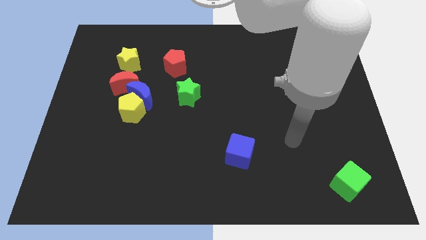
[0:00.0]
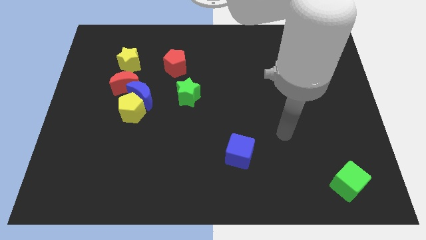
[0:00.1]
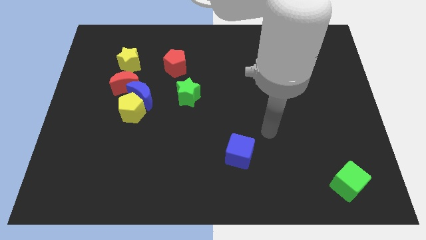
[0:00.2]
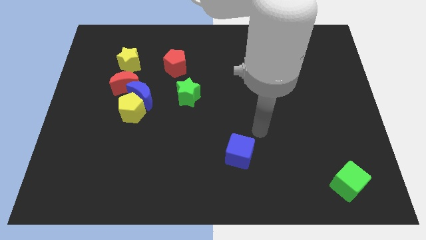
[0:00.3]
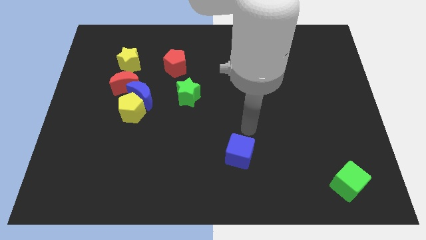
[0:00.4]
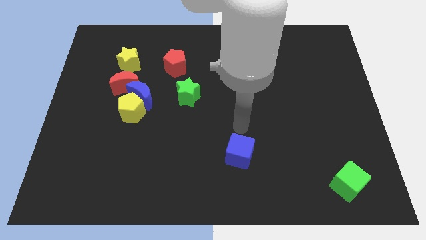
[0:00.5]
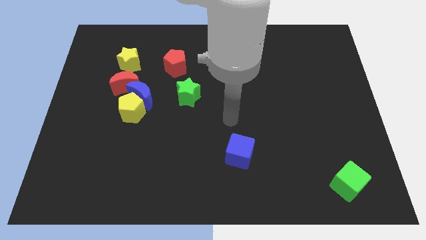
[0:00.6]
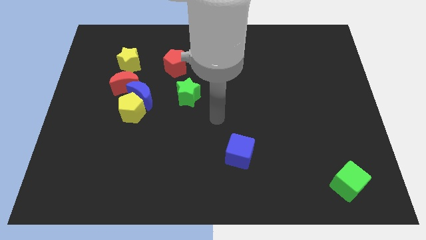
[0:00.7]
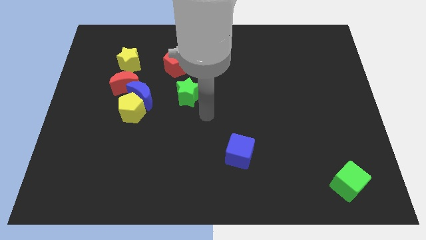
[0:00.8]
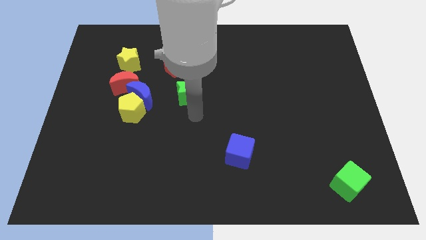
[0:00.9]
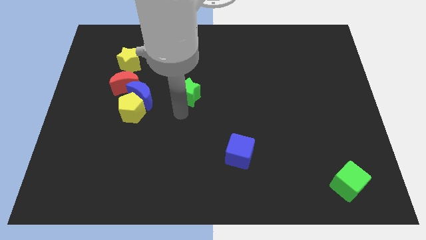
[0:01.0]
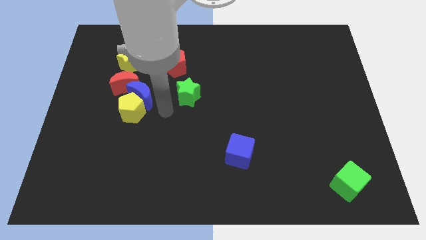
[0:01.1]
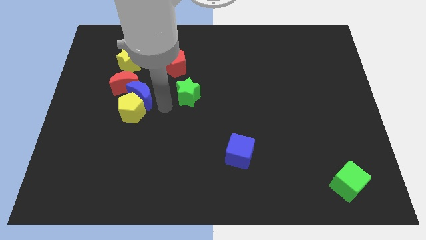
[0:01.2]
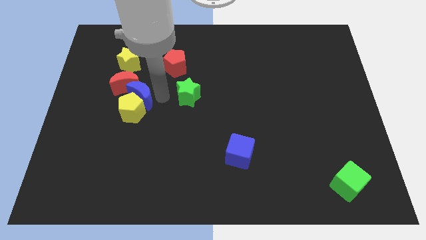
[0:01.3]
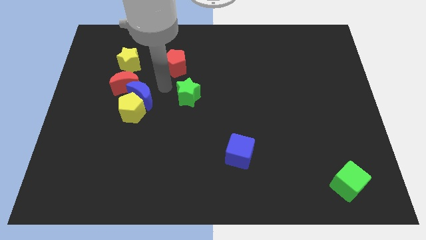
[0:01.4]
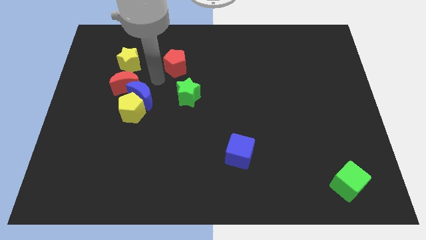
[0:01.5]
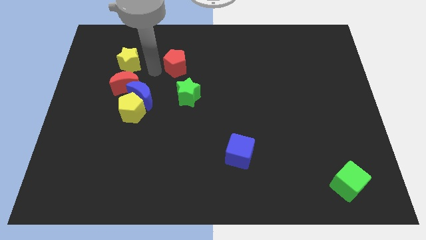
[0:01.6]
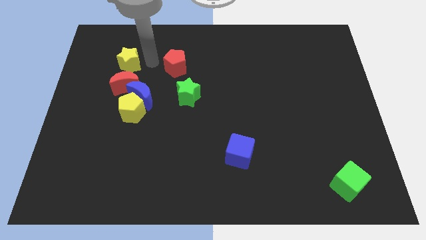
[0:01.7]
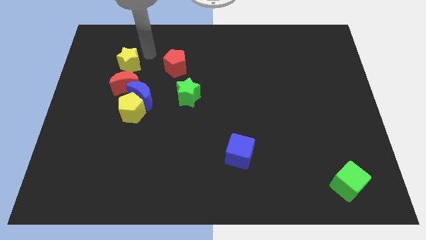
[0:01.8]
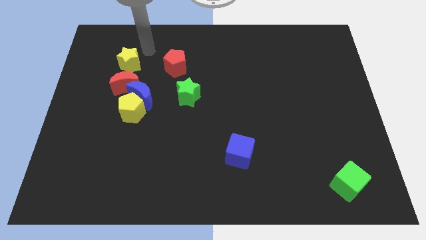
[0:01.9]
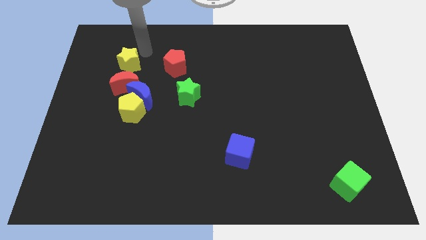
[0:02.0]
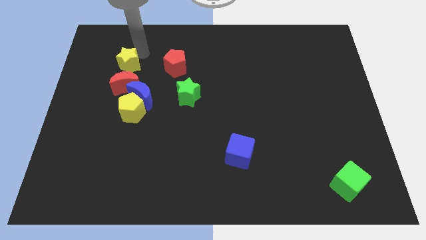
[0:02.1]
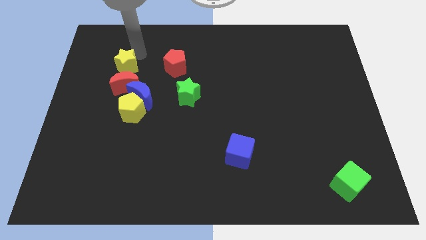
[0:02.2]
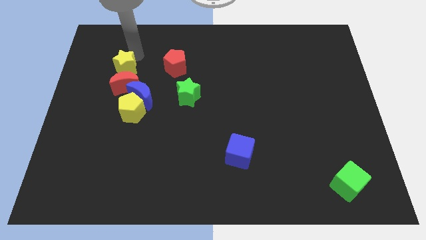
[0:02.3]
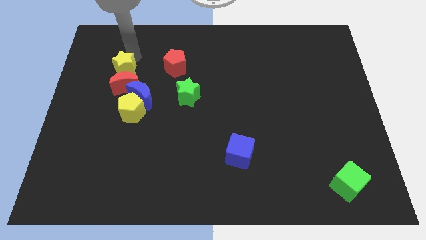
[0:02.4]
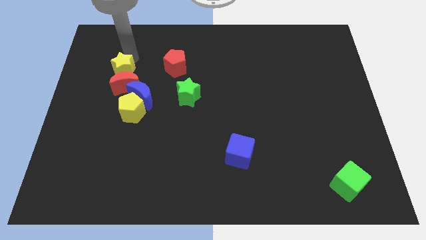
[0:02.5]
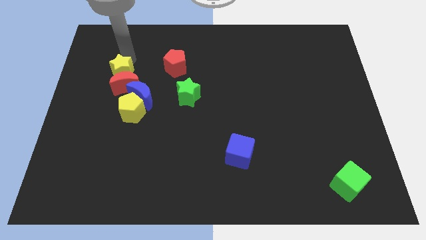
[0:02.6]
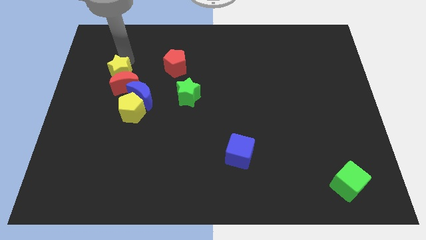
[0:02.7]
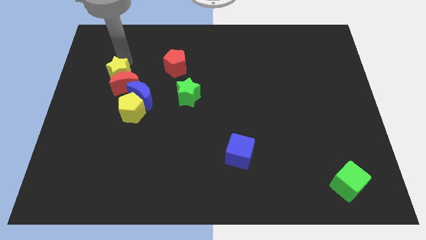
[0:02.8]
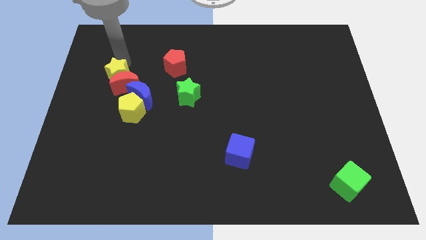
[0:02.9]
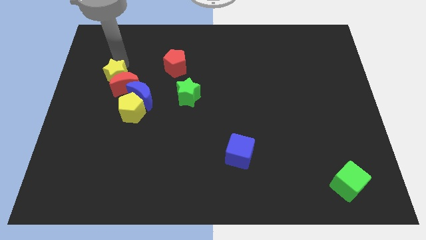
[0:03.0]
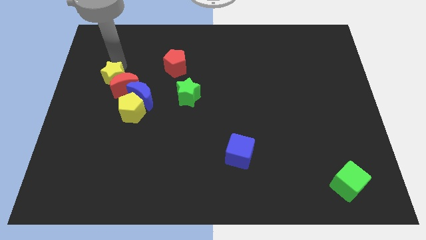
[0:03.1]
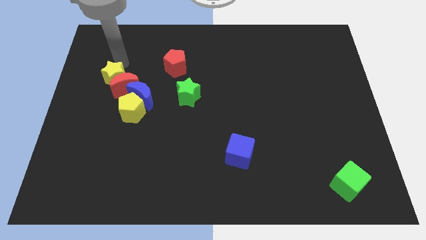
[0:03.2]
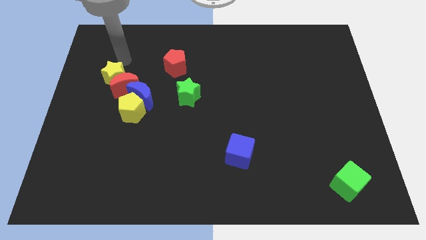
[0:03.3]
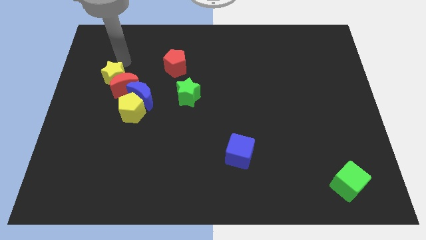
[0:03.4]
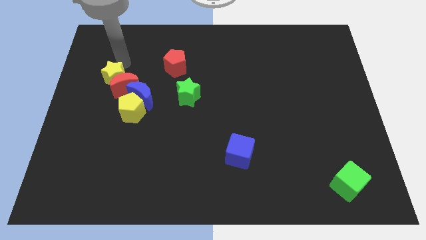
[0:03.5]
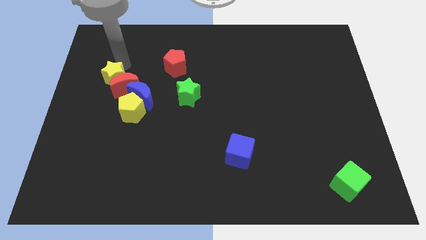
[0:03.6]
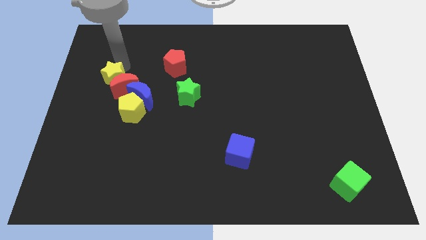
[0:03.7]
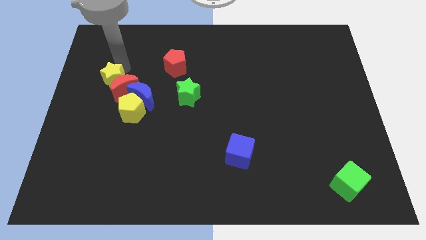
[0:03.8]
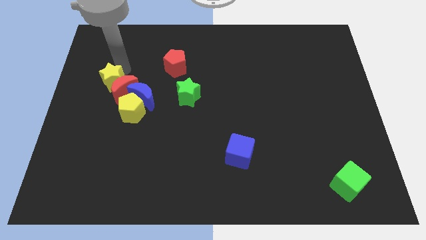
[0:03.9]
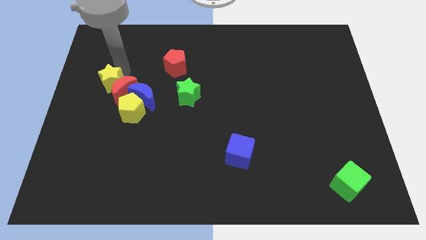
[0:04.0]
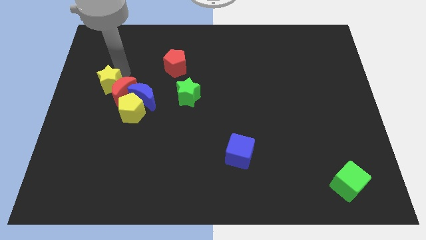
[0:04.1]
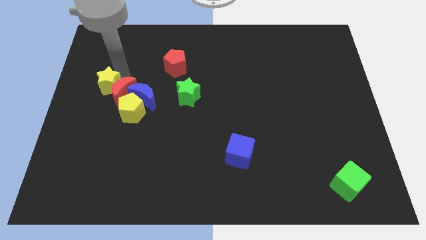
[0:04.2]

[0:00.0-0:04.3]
slide the yellow star downwards slightly

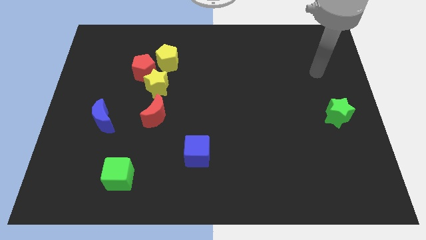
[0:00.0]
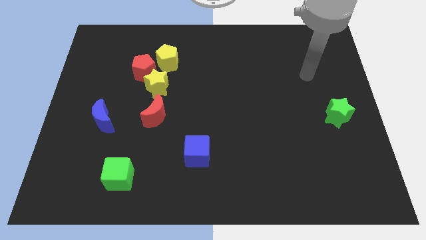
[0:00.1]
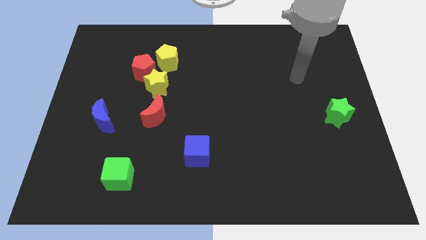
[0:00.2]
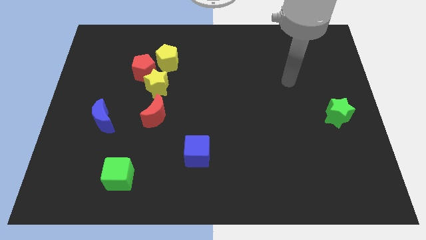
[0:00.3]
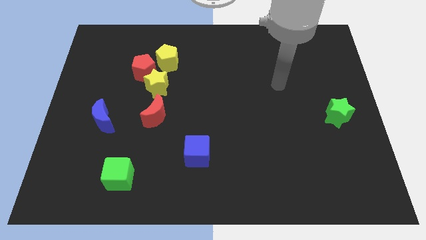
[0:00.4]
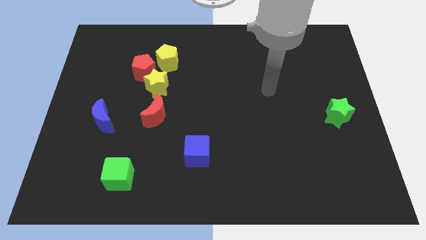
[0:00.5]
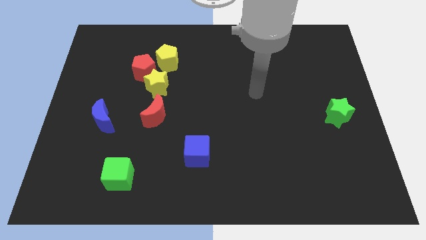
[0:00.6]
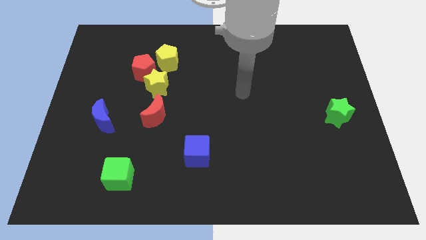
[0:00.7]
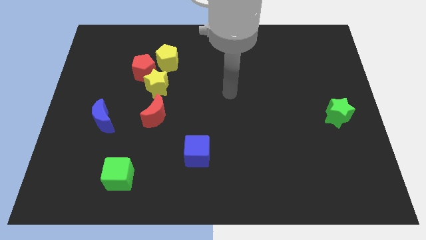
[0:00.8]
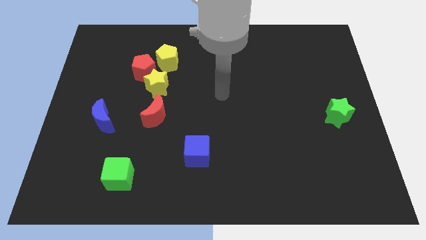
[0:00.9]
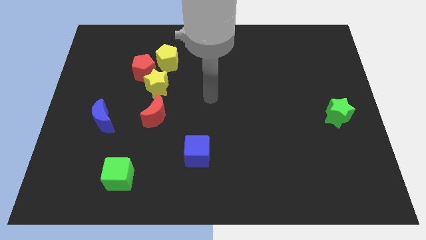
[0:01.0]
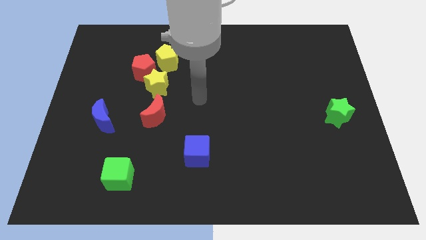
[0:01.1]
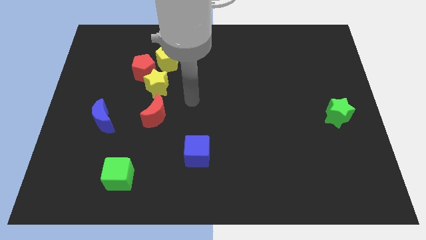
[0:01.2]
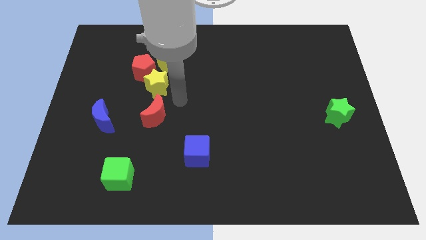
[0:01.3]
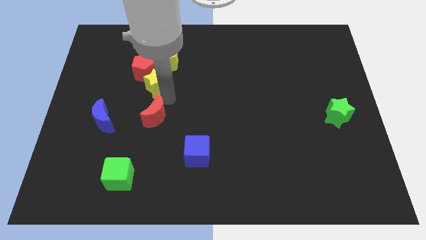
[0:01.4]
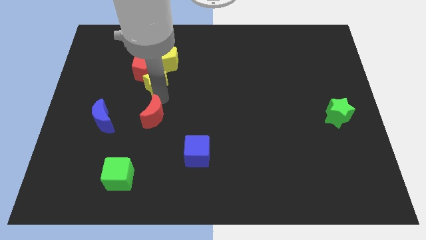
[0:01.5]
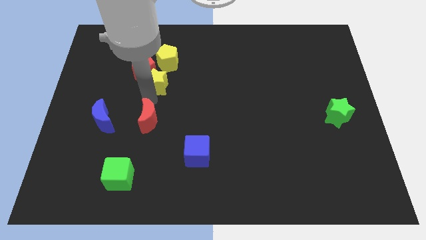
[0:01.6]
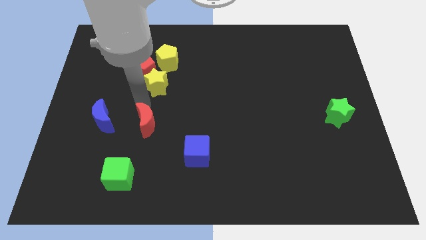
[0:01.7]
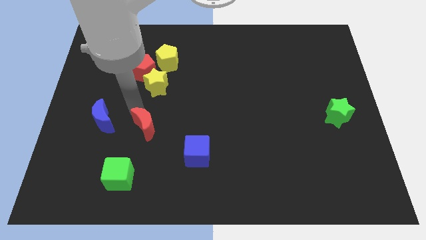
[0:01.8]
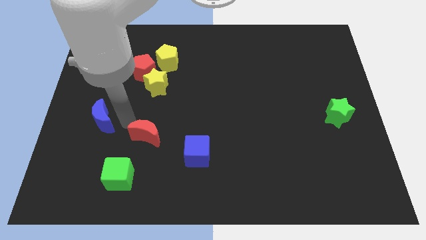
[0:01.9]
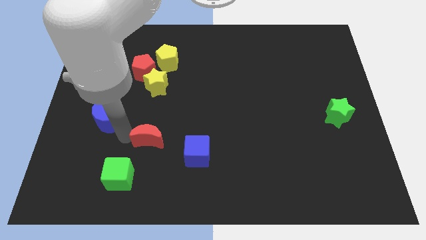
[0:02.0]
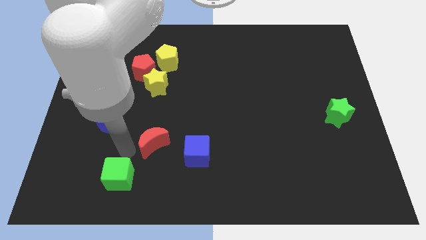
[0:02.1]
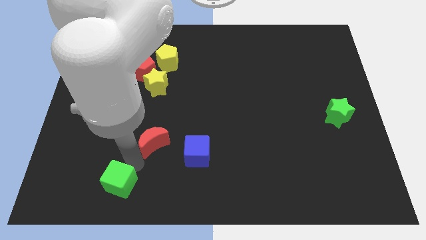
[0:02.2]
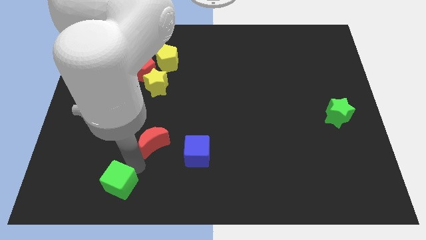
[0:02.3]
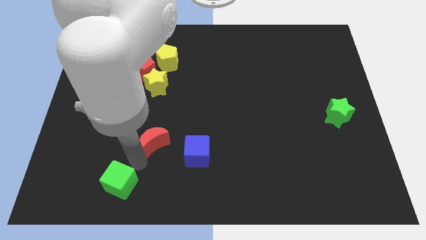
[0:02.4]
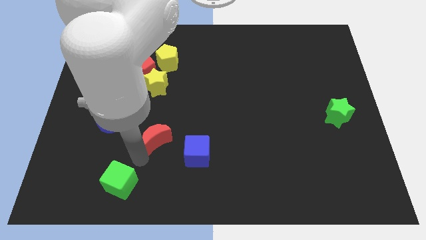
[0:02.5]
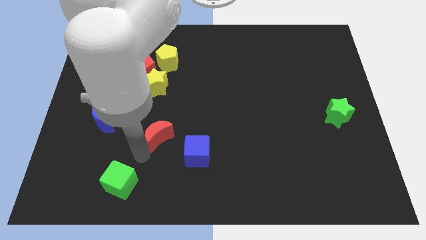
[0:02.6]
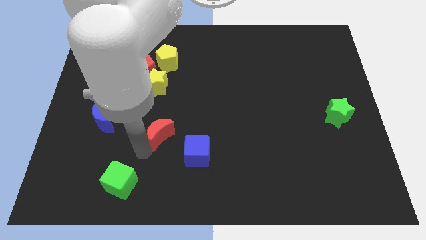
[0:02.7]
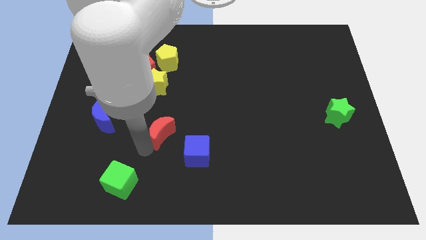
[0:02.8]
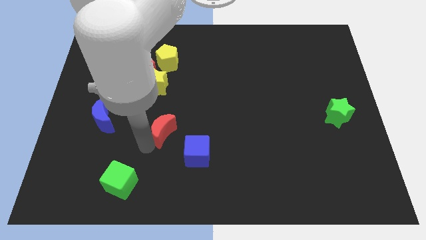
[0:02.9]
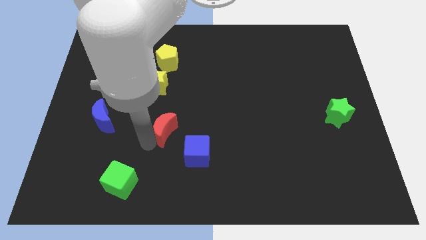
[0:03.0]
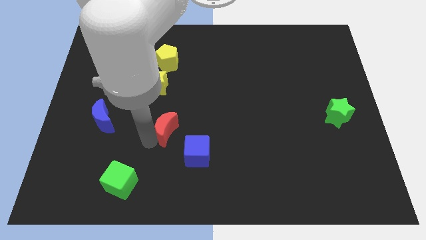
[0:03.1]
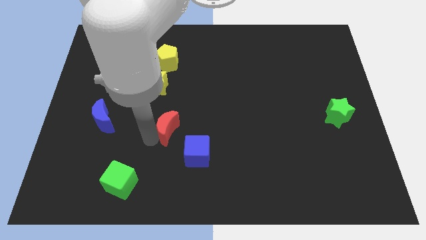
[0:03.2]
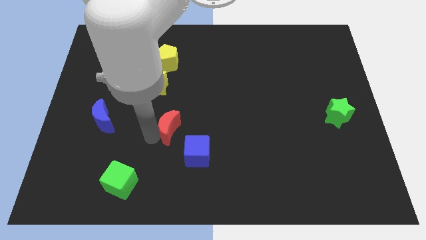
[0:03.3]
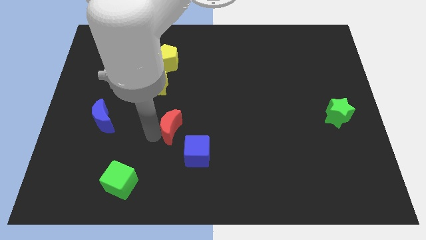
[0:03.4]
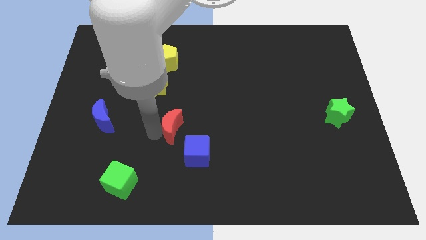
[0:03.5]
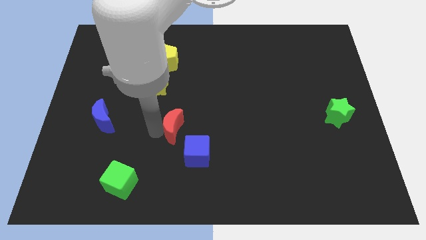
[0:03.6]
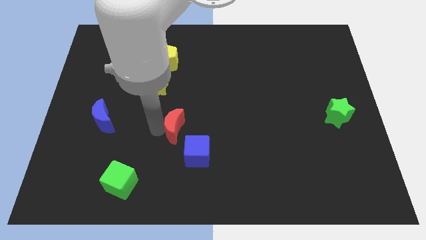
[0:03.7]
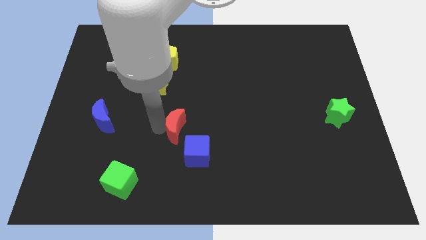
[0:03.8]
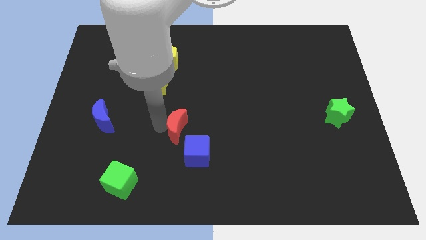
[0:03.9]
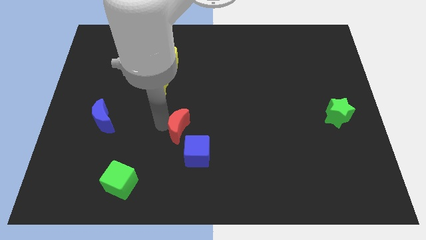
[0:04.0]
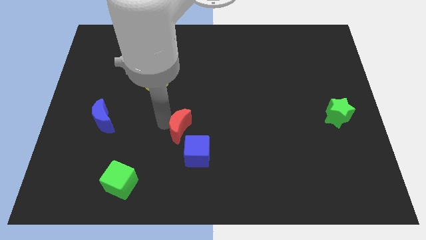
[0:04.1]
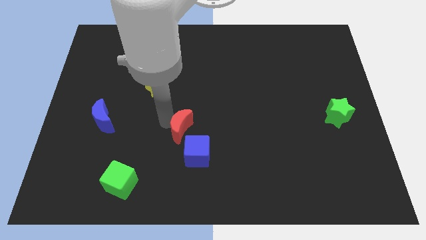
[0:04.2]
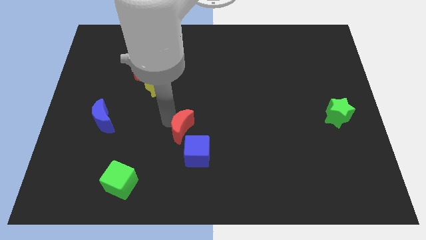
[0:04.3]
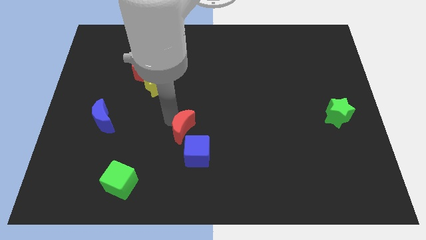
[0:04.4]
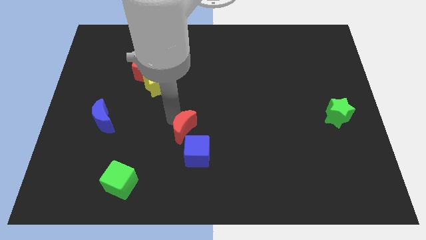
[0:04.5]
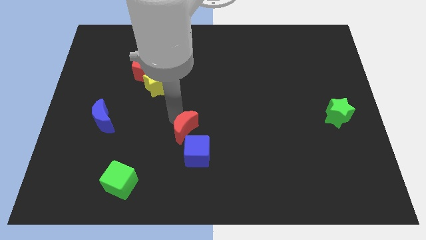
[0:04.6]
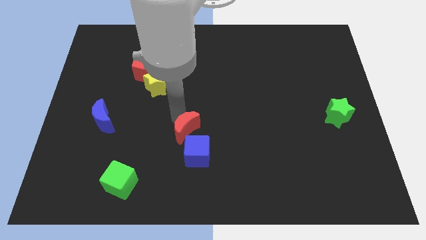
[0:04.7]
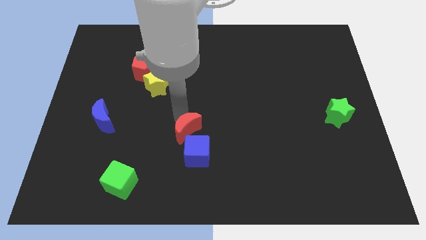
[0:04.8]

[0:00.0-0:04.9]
push the red moon right a little
